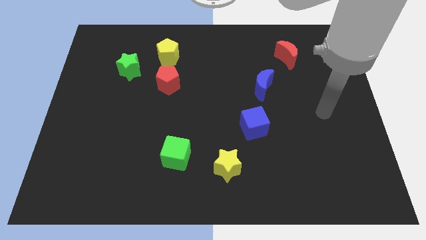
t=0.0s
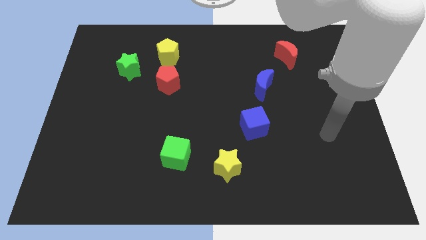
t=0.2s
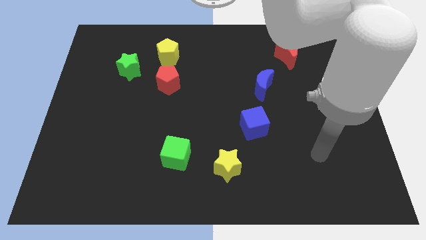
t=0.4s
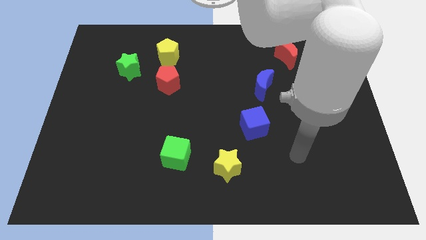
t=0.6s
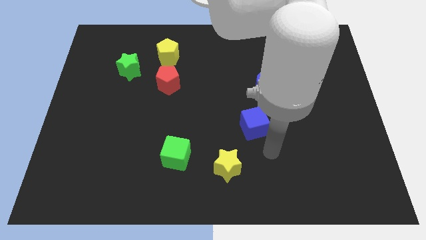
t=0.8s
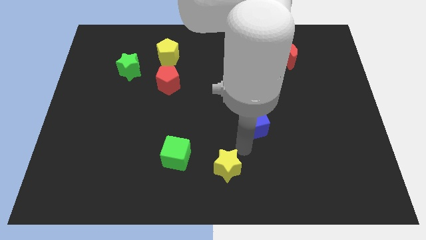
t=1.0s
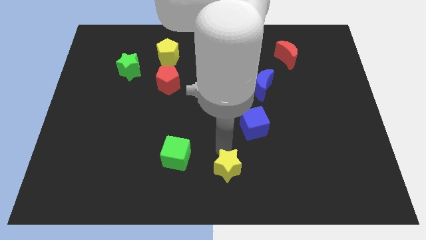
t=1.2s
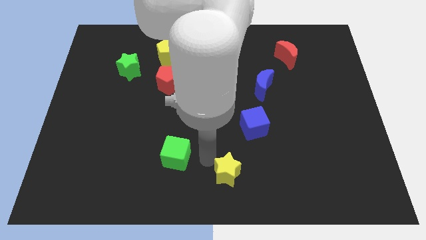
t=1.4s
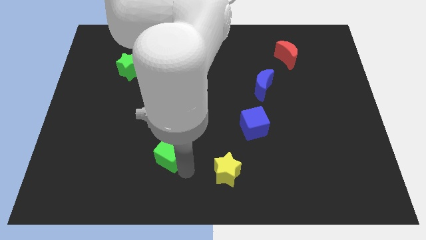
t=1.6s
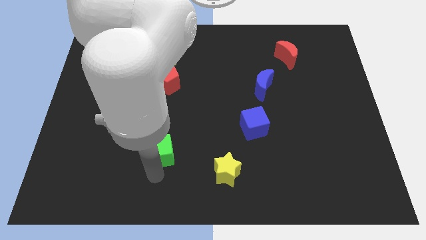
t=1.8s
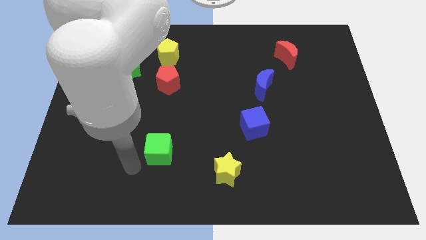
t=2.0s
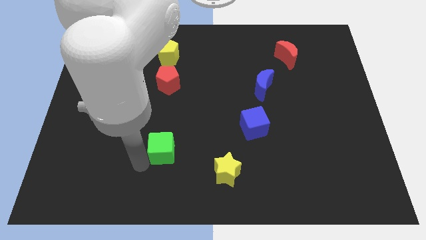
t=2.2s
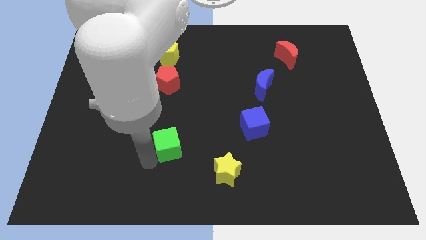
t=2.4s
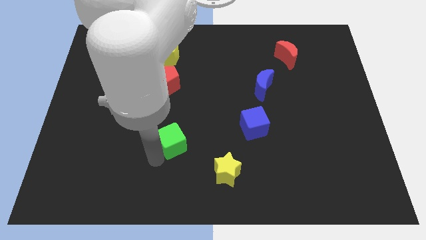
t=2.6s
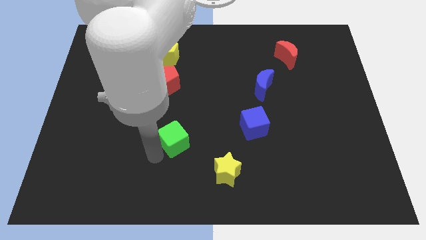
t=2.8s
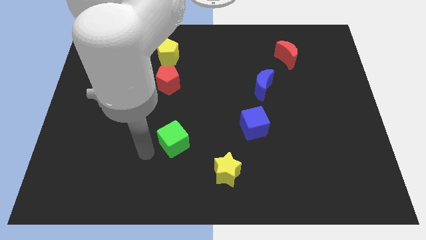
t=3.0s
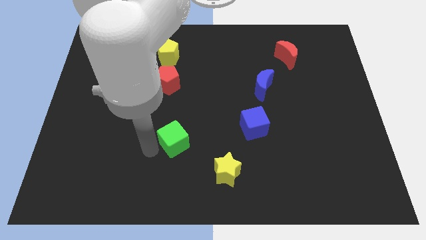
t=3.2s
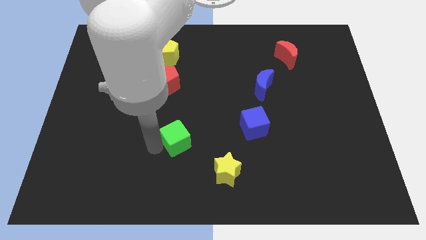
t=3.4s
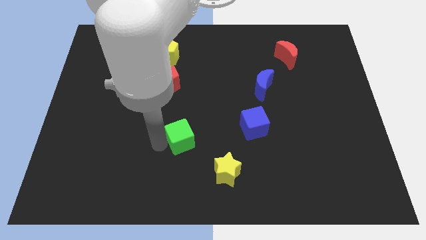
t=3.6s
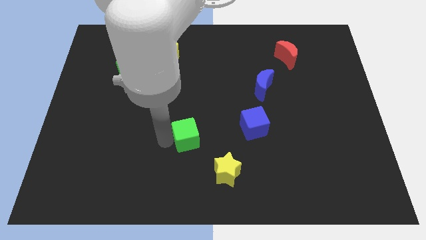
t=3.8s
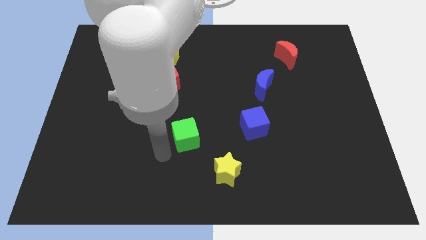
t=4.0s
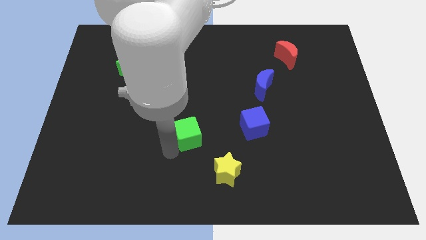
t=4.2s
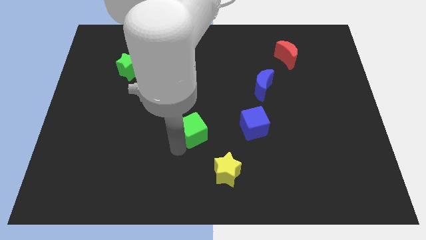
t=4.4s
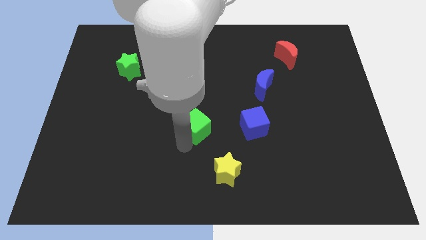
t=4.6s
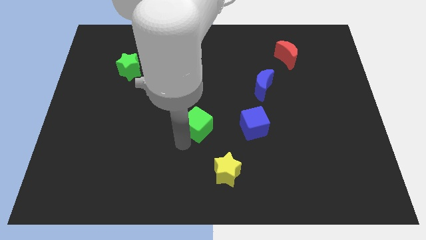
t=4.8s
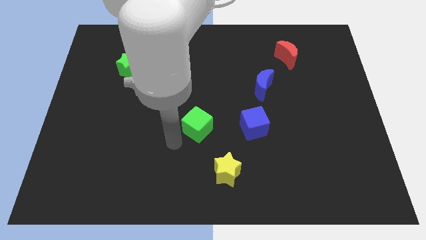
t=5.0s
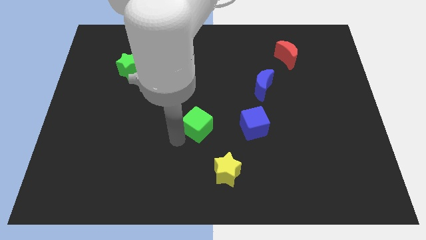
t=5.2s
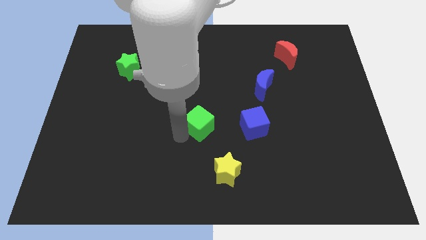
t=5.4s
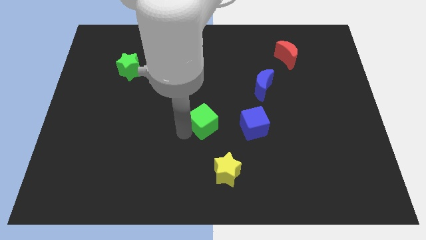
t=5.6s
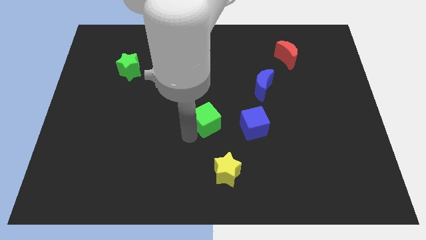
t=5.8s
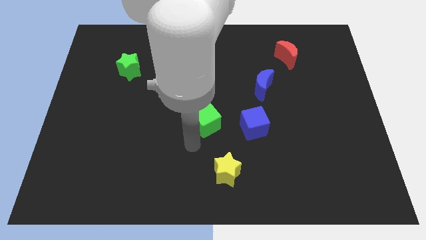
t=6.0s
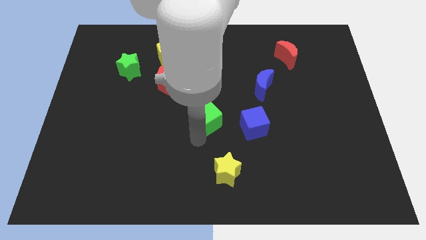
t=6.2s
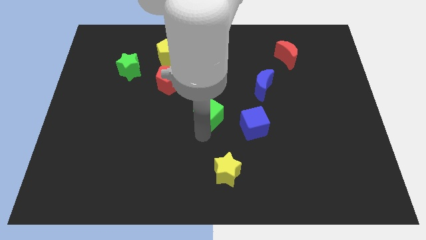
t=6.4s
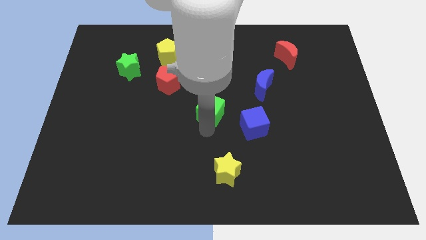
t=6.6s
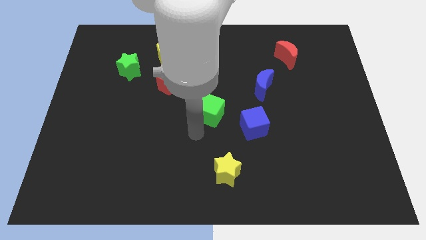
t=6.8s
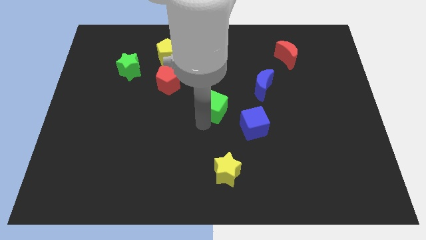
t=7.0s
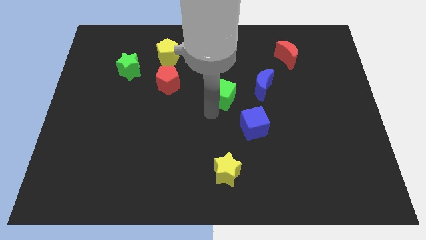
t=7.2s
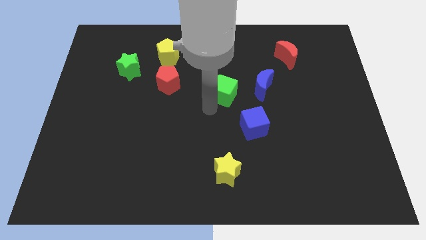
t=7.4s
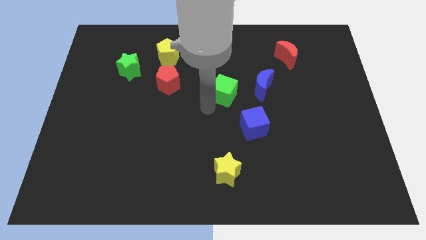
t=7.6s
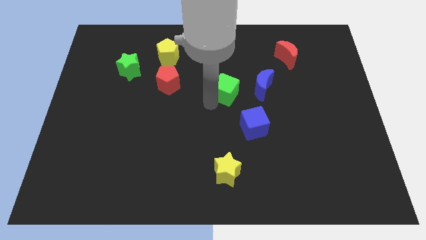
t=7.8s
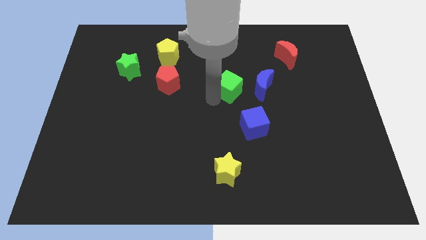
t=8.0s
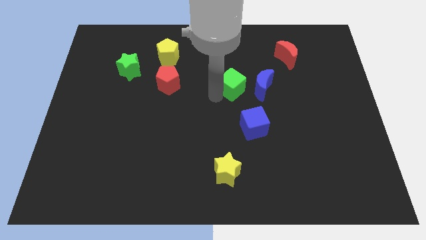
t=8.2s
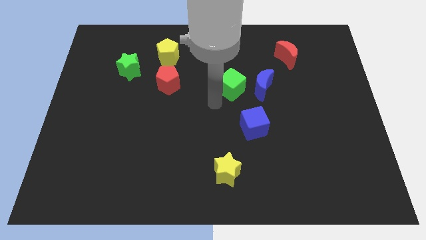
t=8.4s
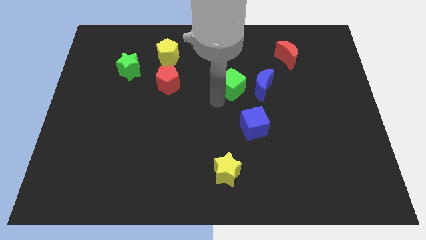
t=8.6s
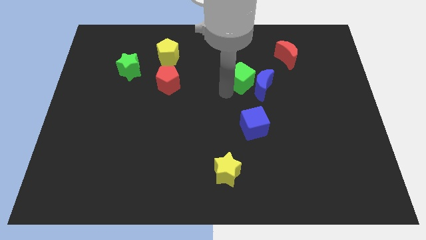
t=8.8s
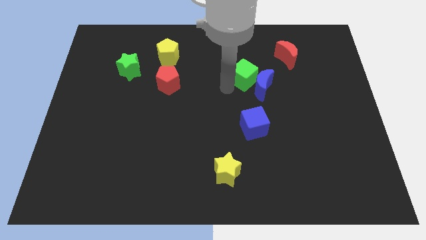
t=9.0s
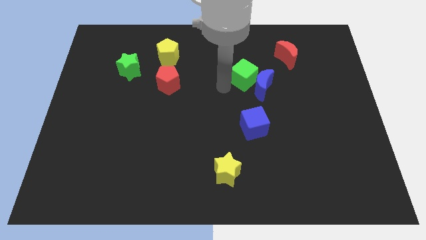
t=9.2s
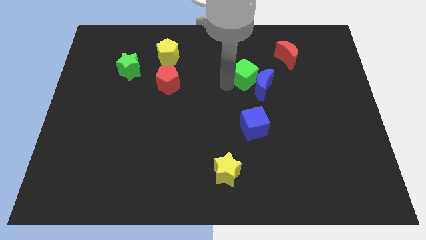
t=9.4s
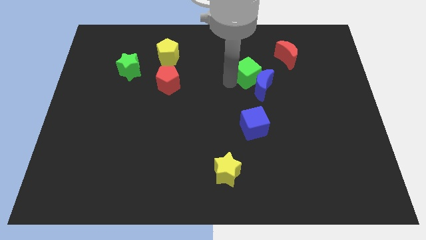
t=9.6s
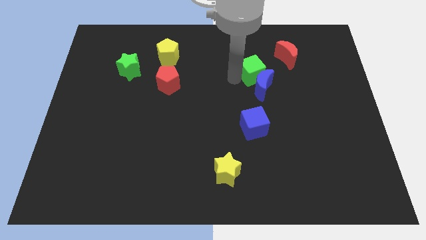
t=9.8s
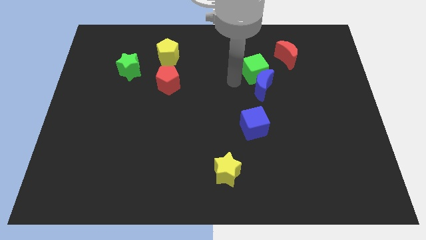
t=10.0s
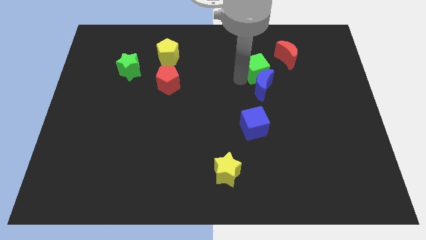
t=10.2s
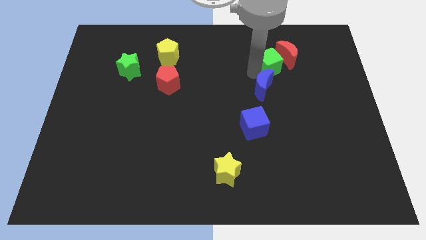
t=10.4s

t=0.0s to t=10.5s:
slide the green cube close to the red moon

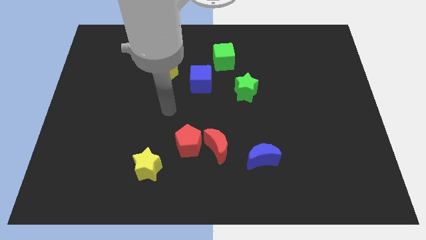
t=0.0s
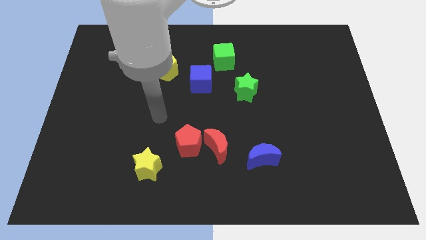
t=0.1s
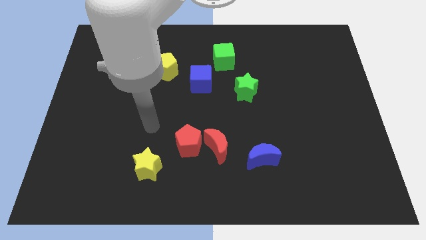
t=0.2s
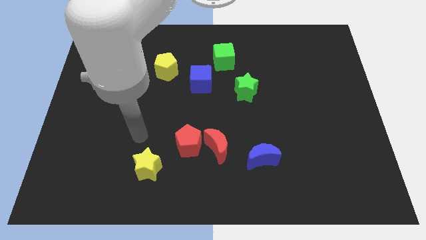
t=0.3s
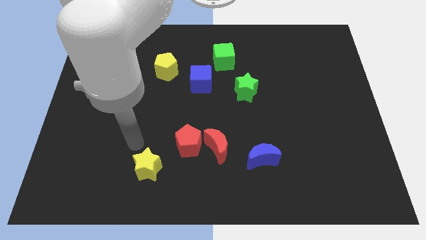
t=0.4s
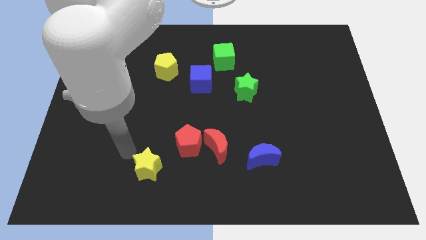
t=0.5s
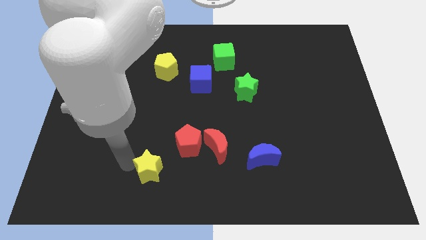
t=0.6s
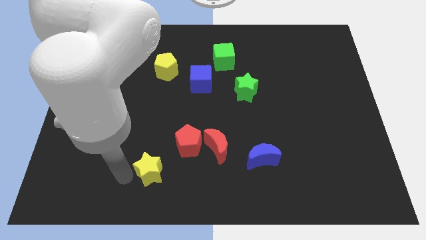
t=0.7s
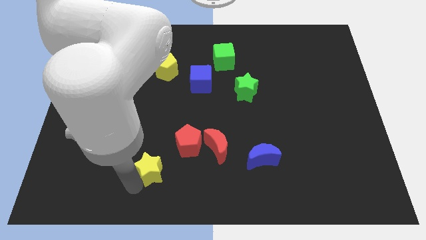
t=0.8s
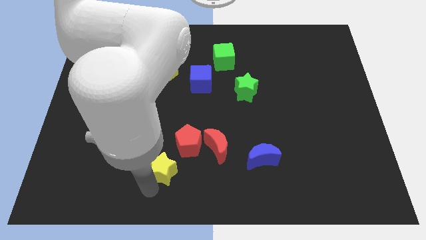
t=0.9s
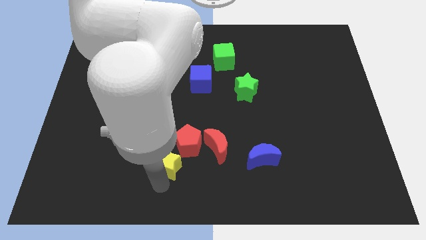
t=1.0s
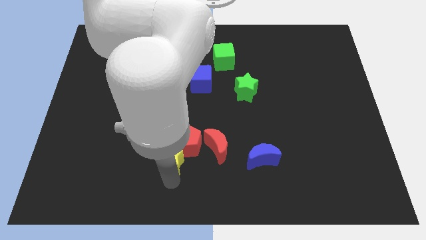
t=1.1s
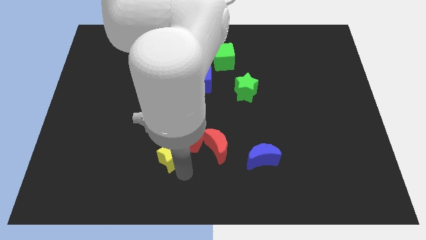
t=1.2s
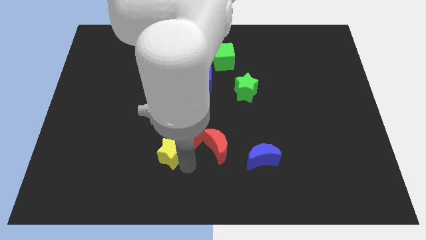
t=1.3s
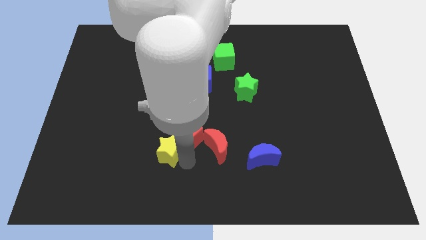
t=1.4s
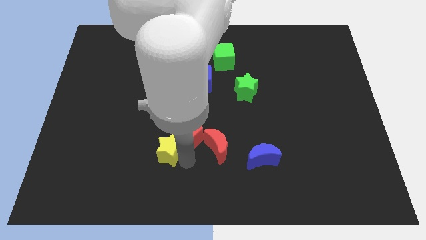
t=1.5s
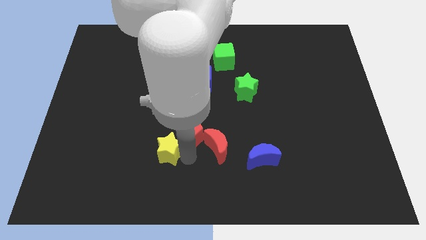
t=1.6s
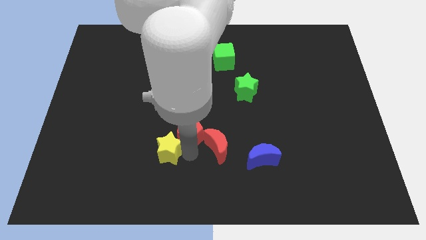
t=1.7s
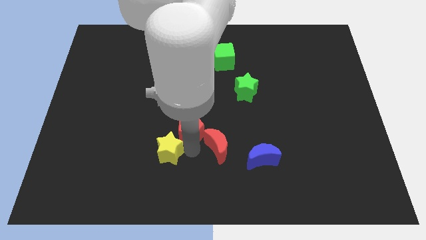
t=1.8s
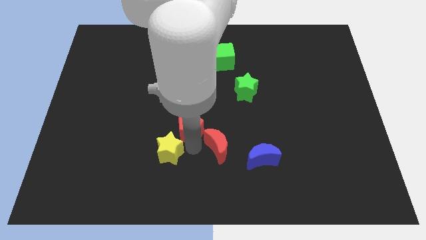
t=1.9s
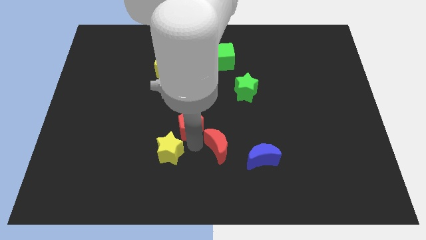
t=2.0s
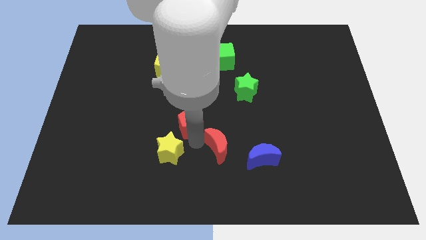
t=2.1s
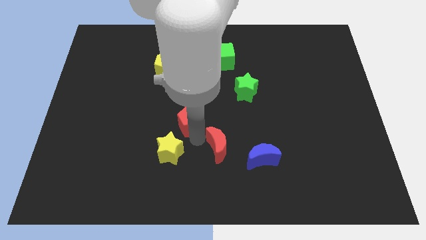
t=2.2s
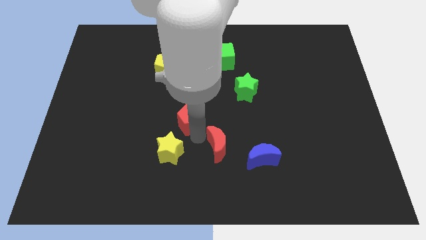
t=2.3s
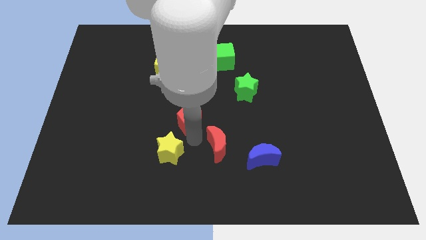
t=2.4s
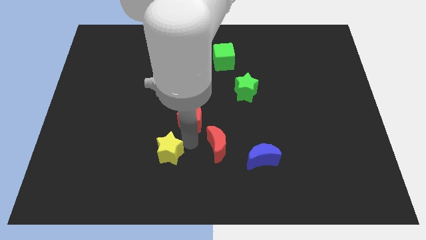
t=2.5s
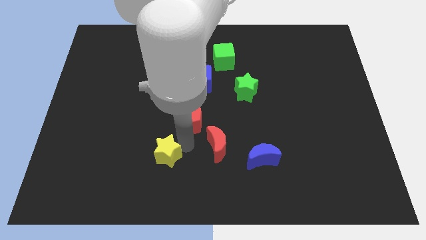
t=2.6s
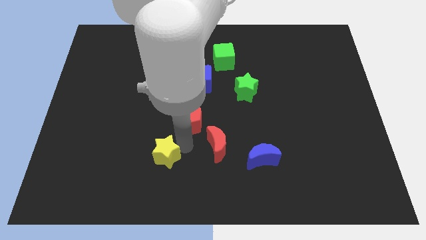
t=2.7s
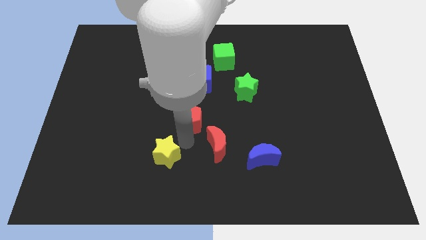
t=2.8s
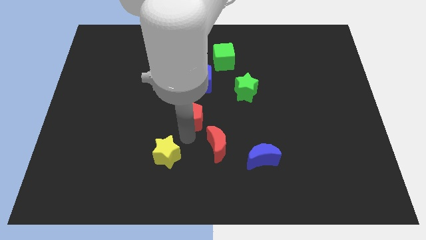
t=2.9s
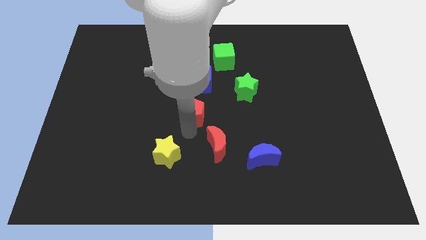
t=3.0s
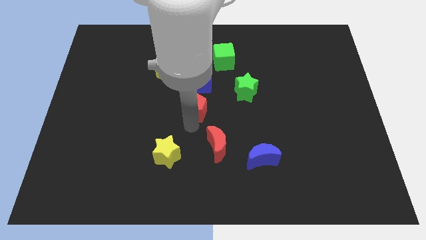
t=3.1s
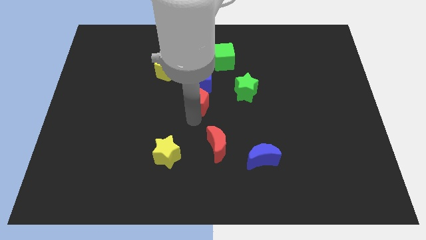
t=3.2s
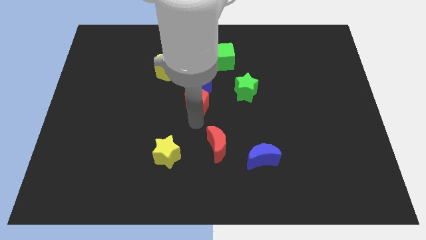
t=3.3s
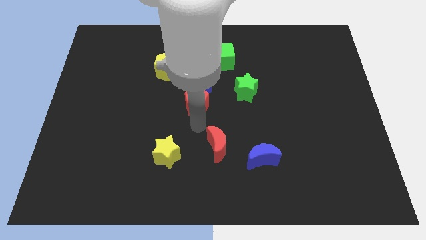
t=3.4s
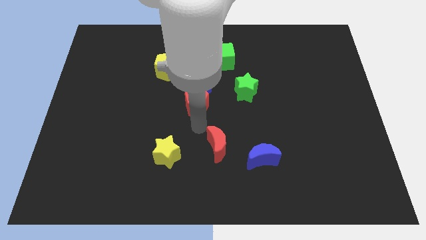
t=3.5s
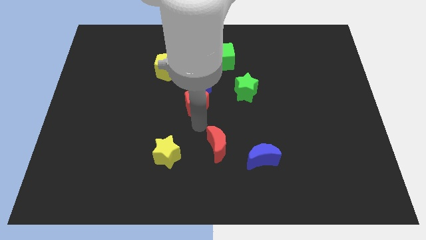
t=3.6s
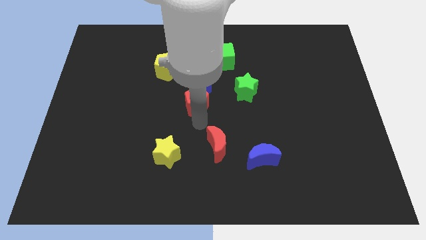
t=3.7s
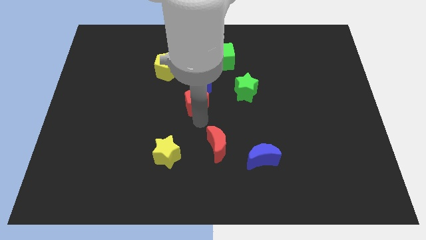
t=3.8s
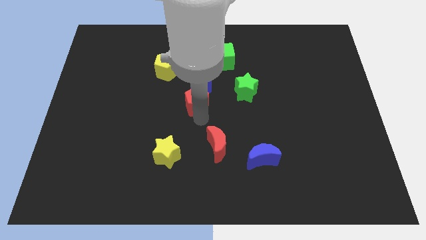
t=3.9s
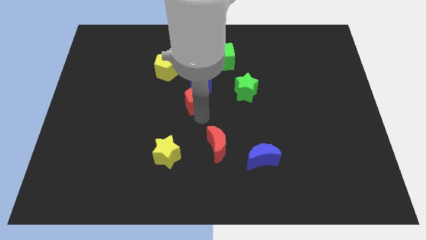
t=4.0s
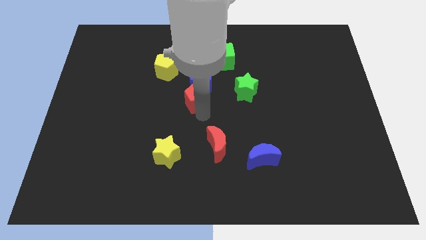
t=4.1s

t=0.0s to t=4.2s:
put the red pentagon towards the blue cube
